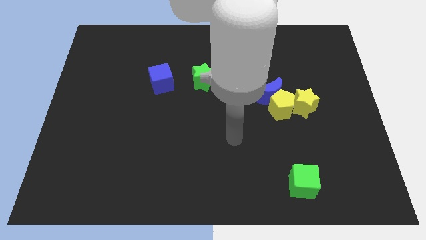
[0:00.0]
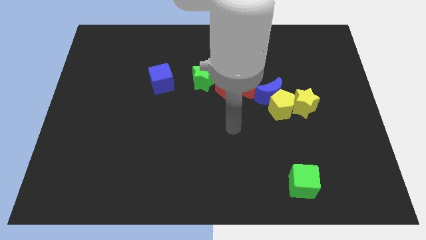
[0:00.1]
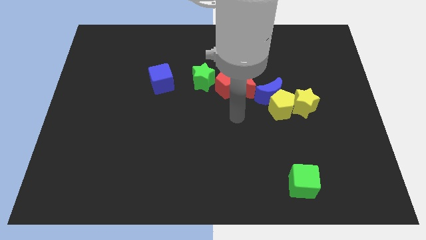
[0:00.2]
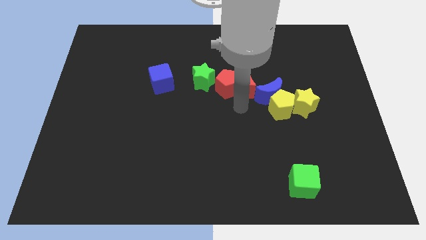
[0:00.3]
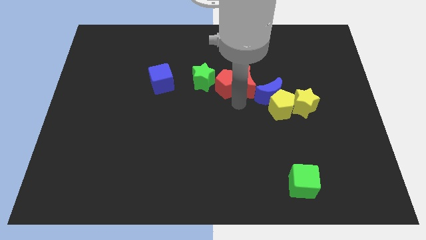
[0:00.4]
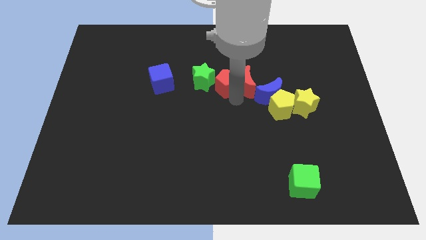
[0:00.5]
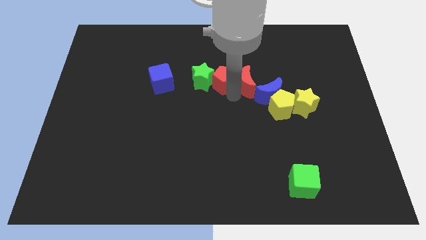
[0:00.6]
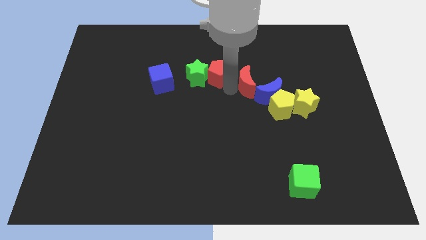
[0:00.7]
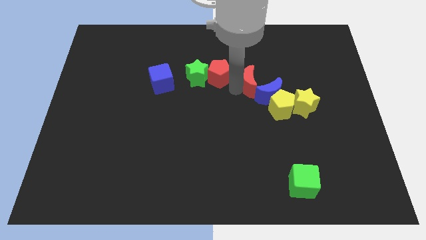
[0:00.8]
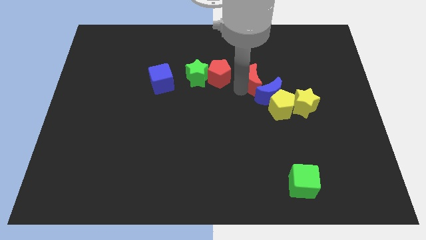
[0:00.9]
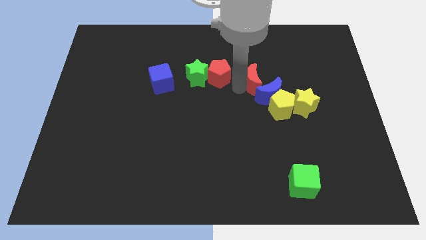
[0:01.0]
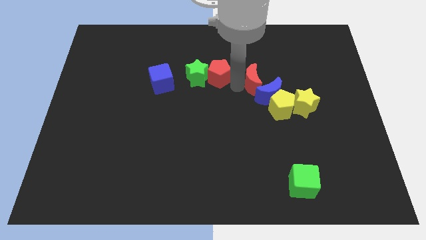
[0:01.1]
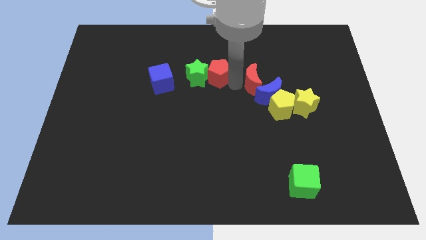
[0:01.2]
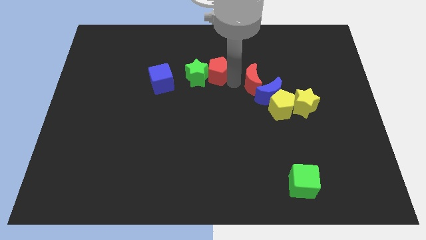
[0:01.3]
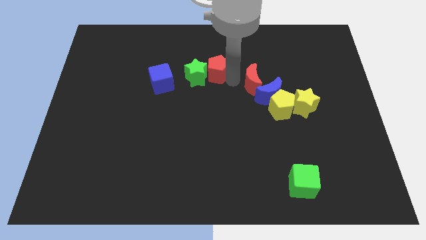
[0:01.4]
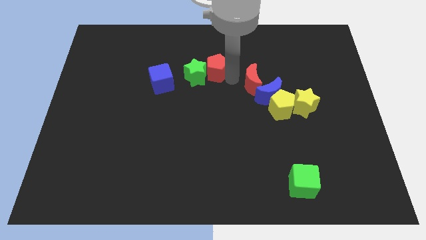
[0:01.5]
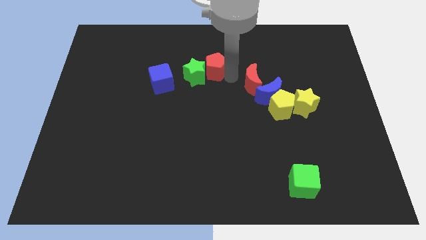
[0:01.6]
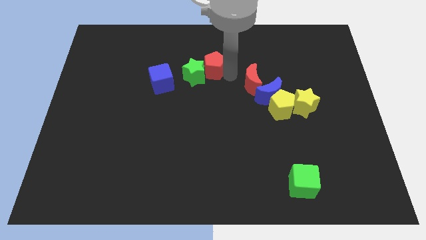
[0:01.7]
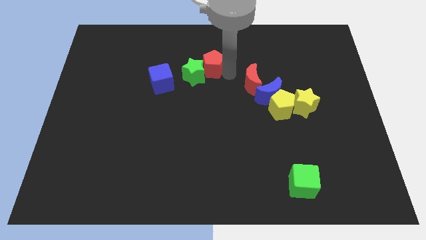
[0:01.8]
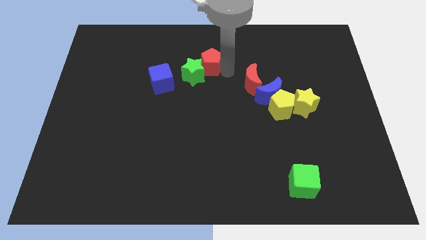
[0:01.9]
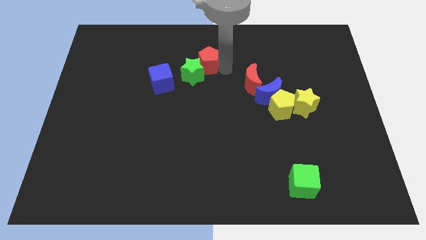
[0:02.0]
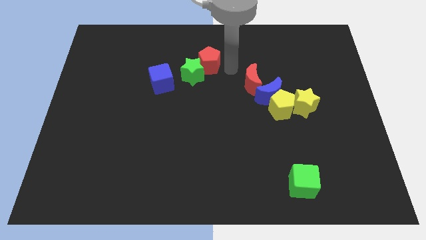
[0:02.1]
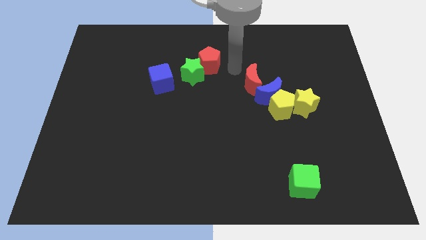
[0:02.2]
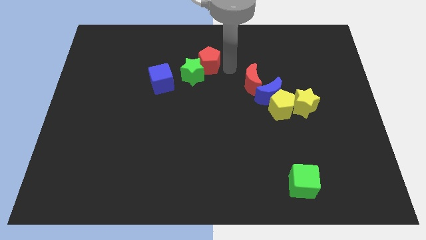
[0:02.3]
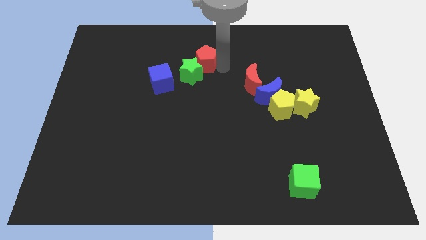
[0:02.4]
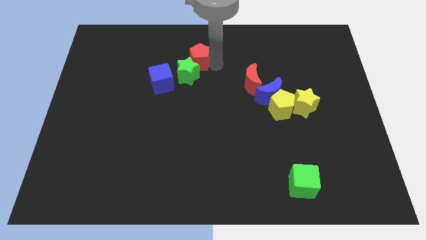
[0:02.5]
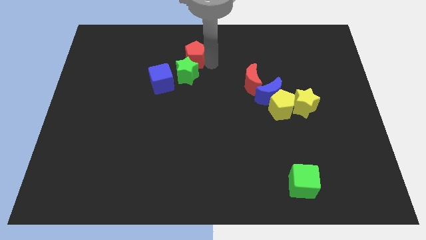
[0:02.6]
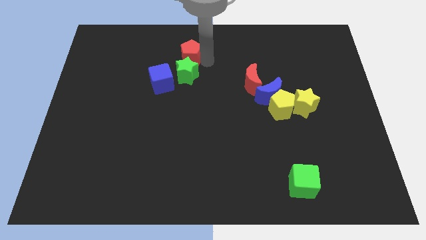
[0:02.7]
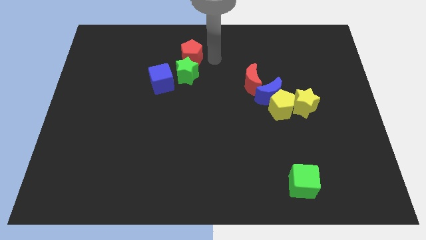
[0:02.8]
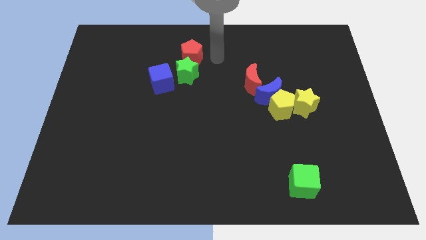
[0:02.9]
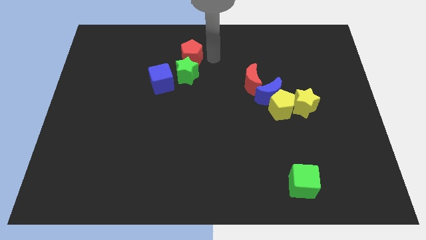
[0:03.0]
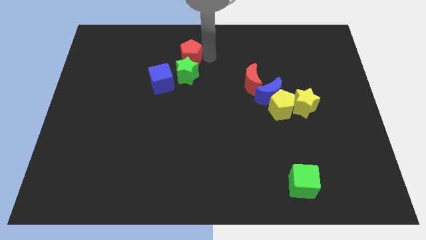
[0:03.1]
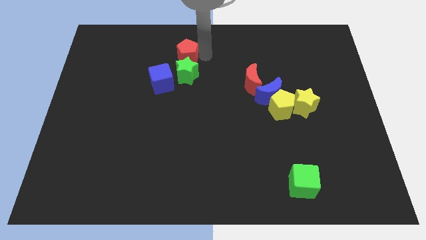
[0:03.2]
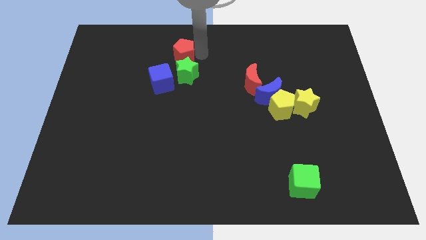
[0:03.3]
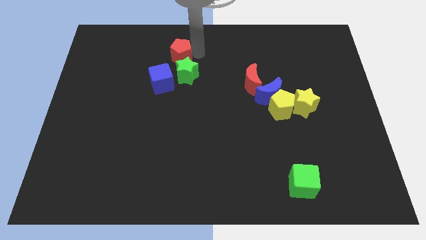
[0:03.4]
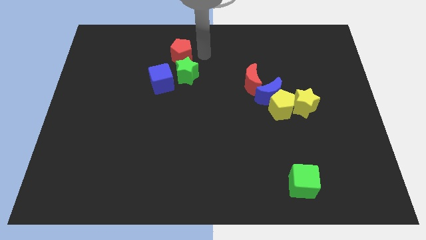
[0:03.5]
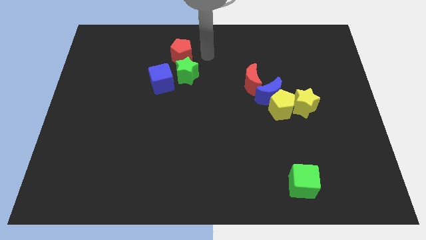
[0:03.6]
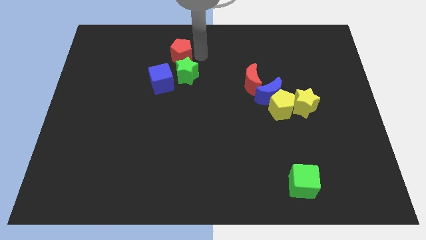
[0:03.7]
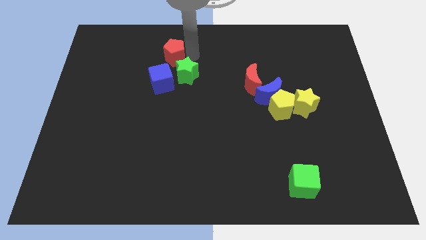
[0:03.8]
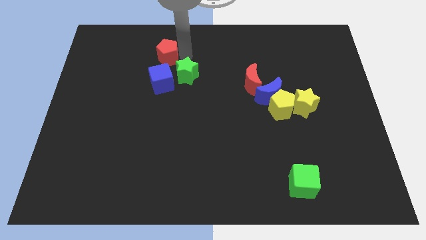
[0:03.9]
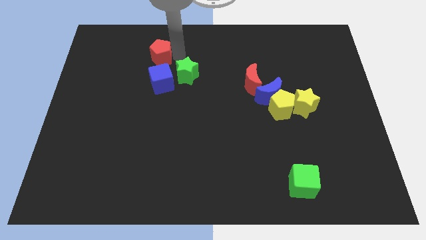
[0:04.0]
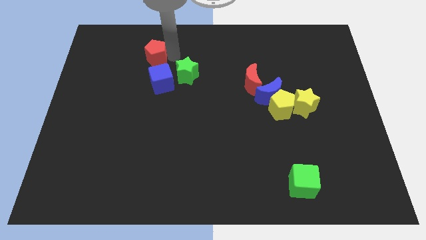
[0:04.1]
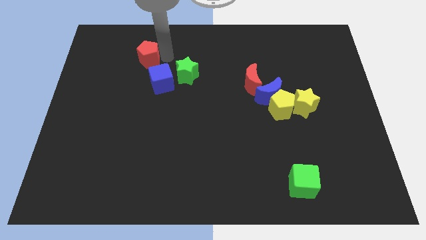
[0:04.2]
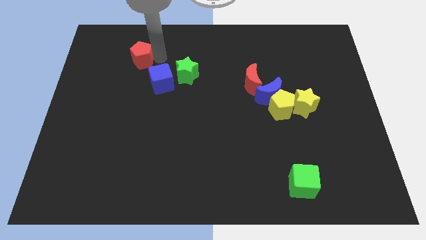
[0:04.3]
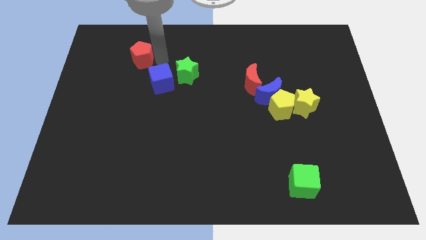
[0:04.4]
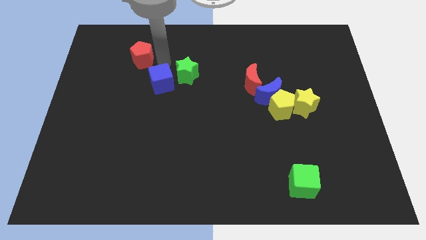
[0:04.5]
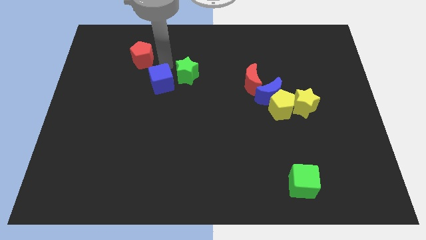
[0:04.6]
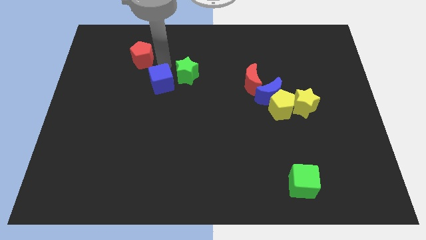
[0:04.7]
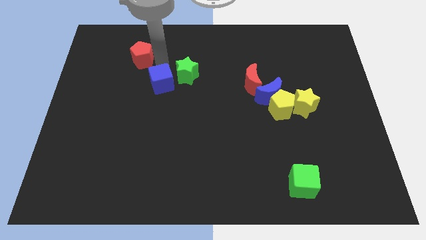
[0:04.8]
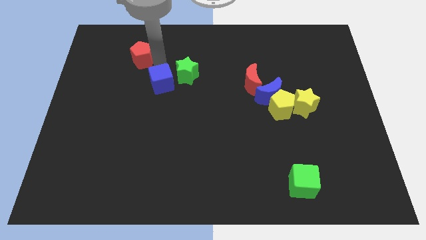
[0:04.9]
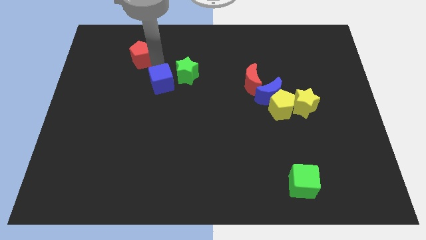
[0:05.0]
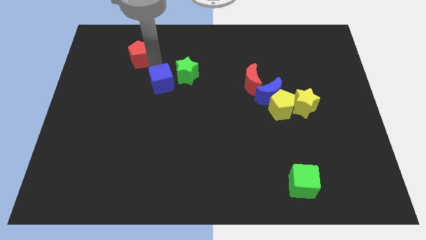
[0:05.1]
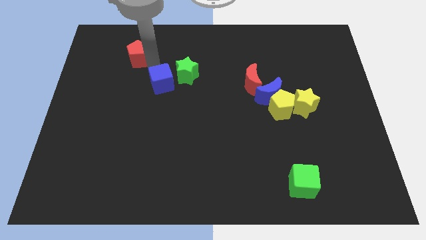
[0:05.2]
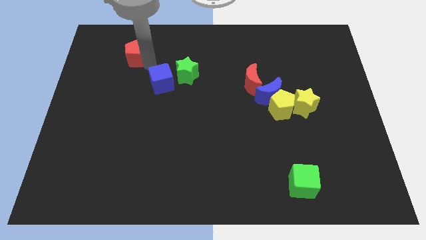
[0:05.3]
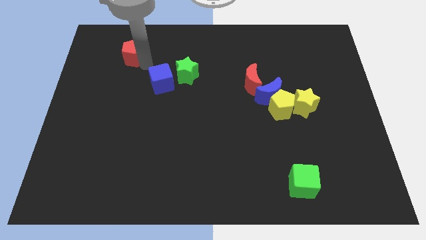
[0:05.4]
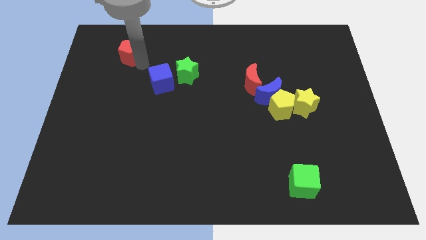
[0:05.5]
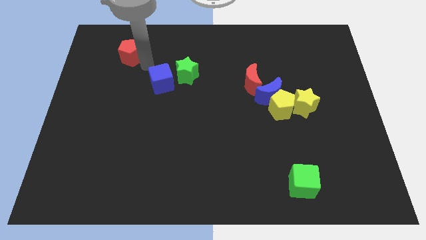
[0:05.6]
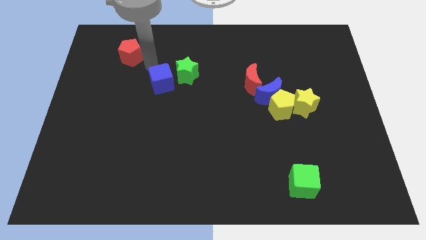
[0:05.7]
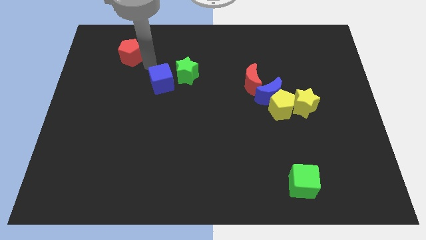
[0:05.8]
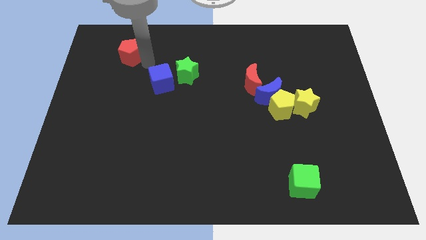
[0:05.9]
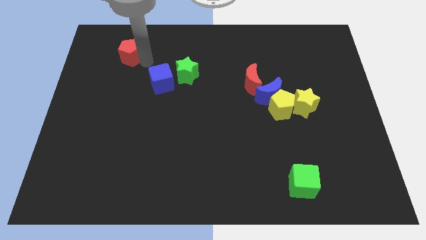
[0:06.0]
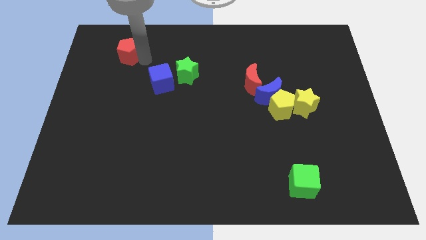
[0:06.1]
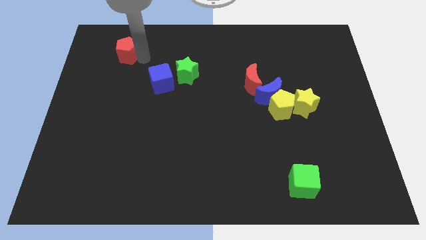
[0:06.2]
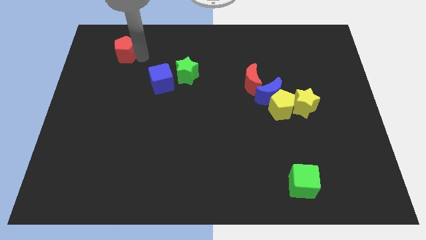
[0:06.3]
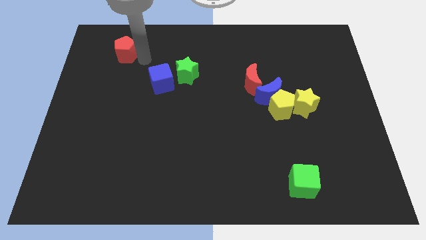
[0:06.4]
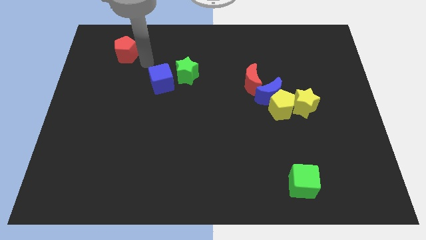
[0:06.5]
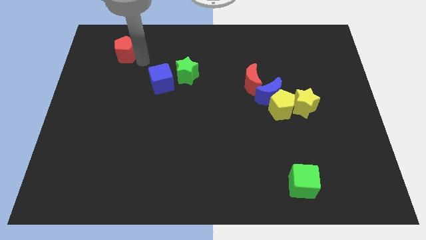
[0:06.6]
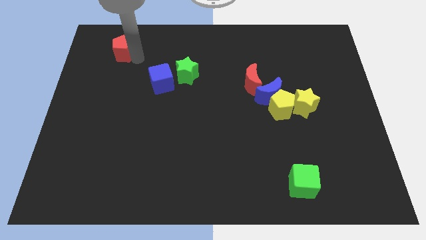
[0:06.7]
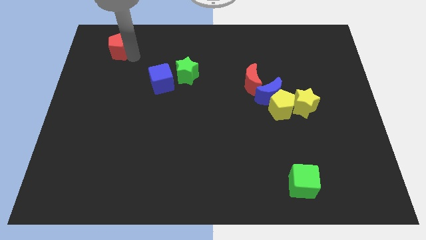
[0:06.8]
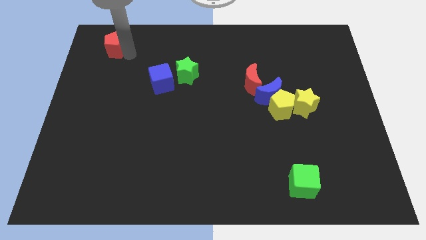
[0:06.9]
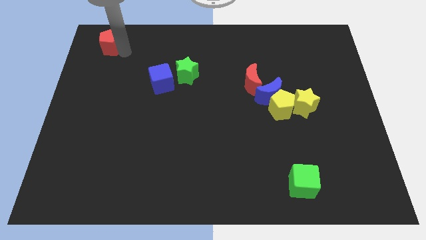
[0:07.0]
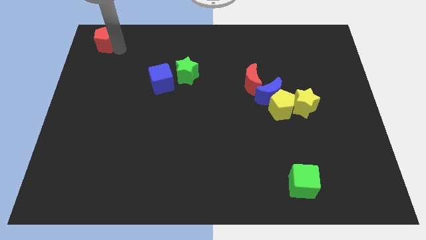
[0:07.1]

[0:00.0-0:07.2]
move the red pentagon to the top left of the board
